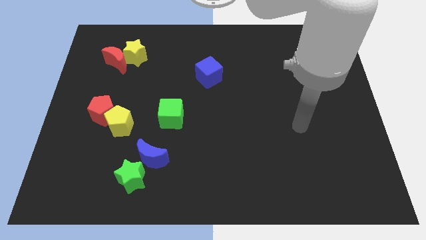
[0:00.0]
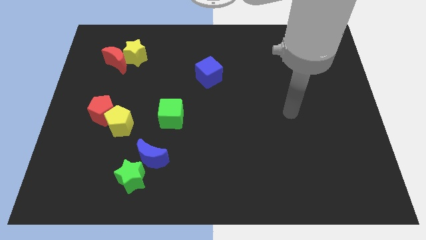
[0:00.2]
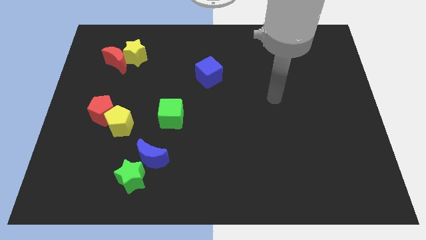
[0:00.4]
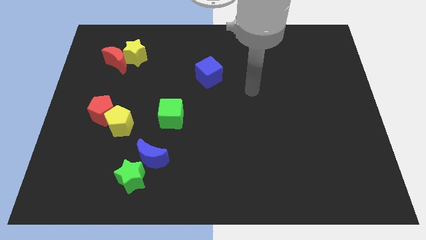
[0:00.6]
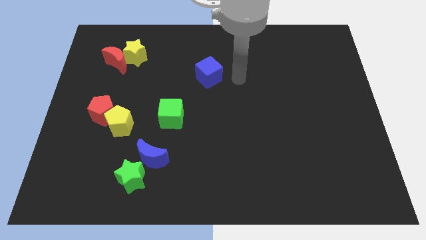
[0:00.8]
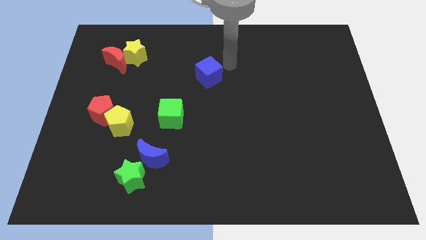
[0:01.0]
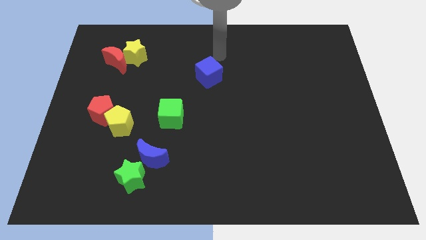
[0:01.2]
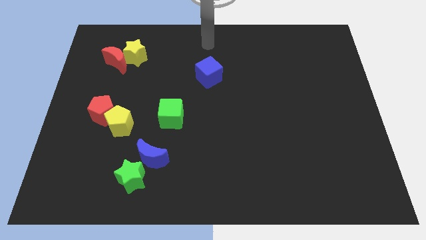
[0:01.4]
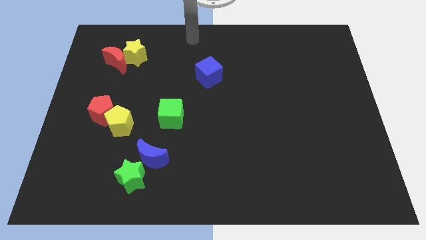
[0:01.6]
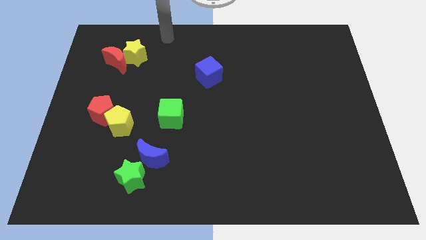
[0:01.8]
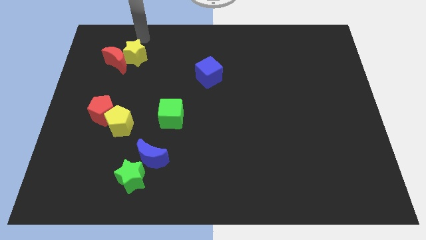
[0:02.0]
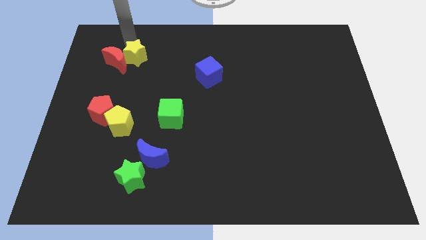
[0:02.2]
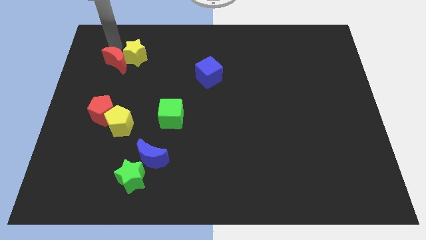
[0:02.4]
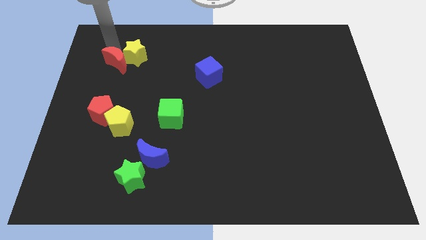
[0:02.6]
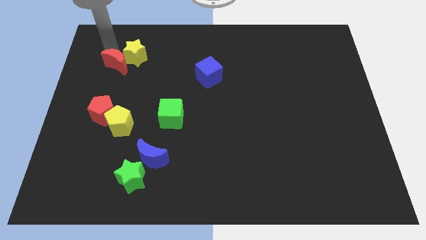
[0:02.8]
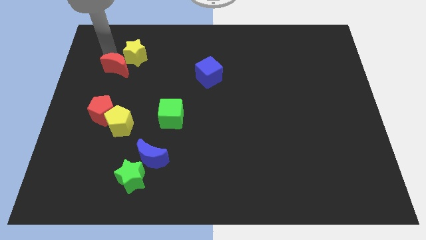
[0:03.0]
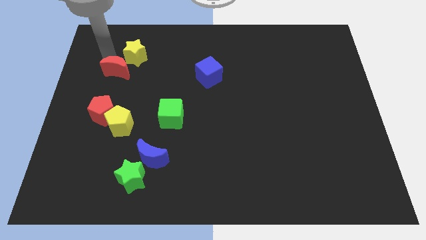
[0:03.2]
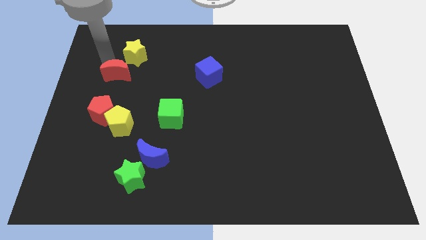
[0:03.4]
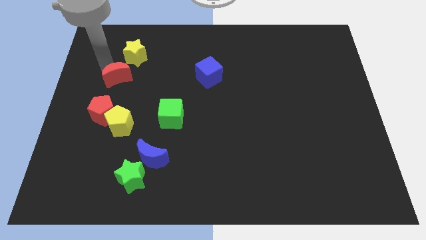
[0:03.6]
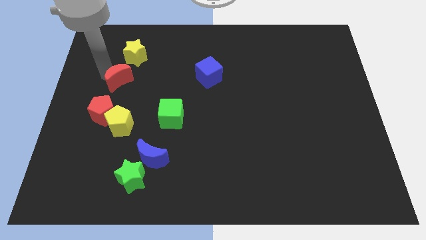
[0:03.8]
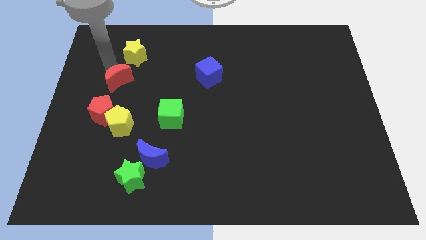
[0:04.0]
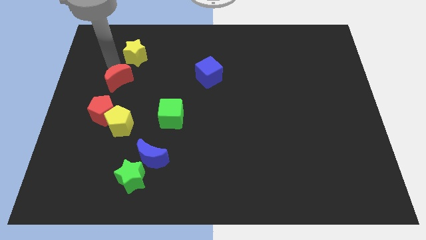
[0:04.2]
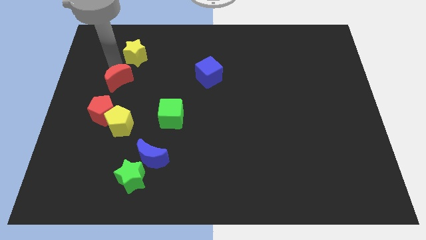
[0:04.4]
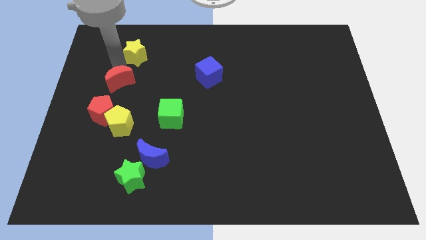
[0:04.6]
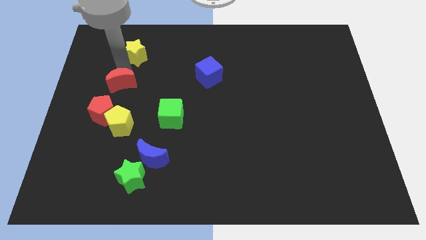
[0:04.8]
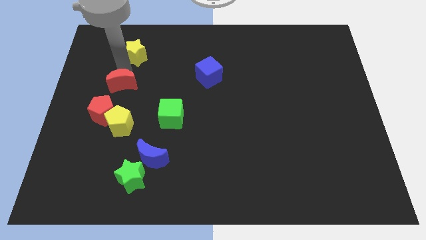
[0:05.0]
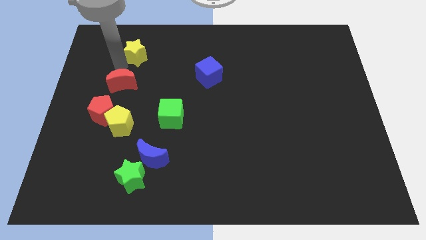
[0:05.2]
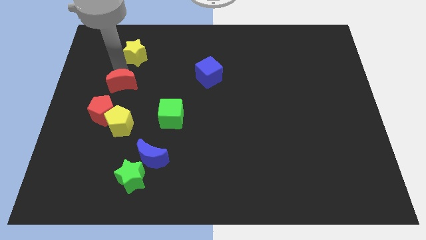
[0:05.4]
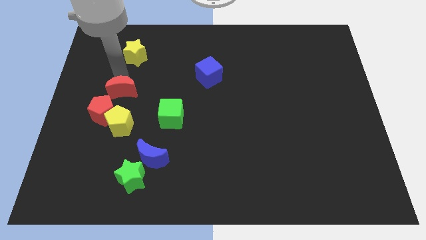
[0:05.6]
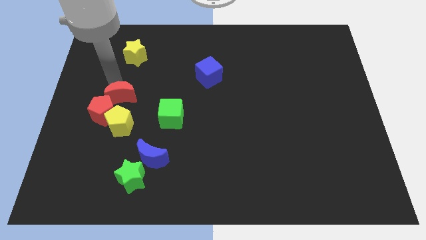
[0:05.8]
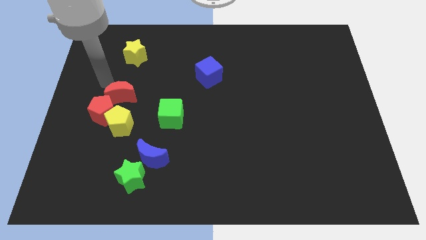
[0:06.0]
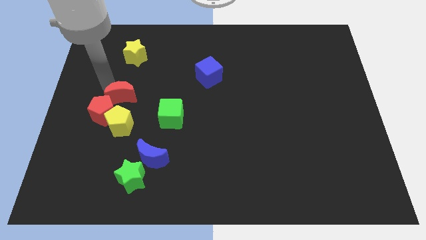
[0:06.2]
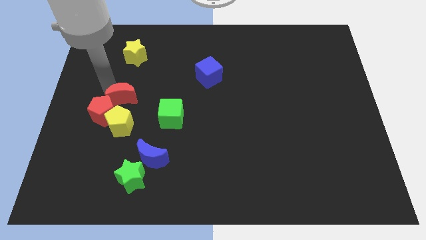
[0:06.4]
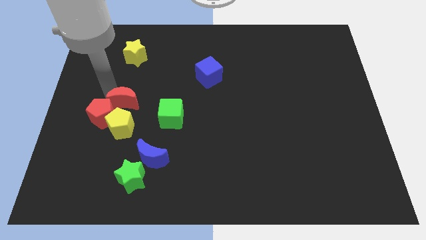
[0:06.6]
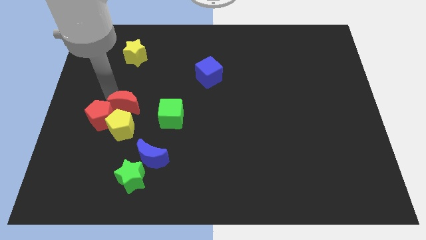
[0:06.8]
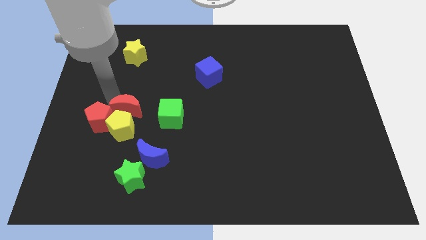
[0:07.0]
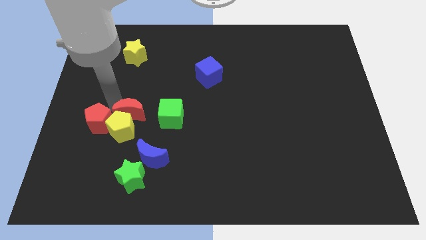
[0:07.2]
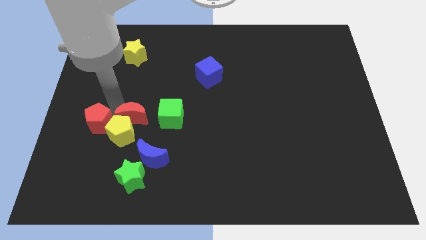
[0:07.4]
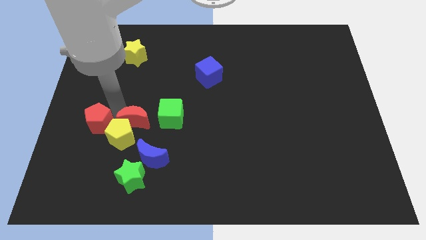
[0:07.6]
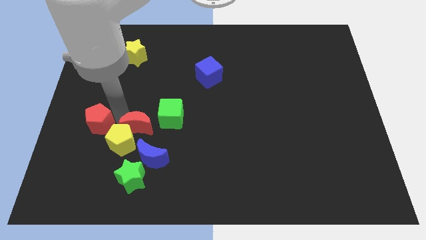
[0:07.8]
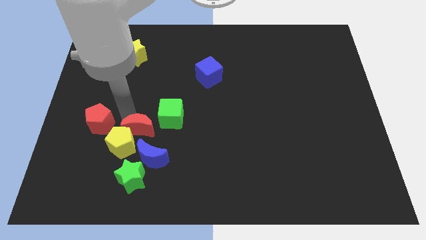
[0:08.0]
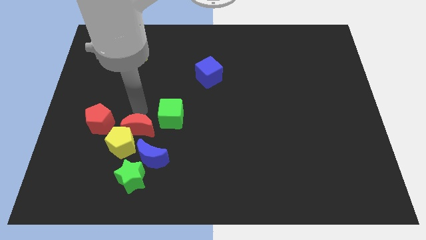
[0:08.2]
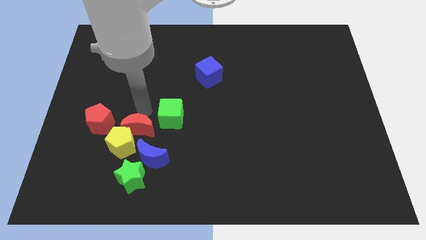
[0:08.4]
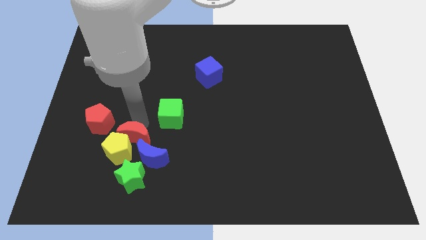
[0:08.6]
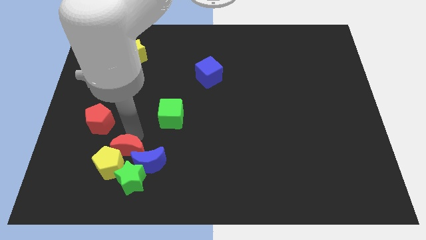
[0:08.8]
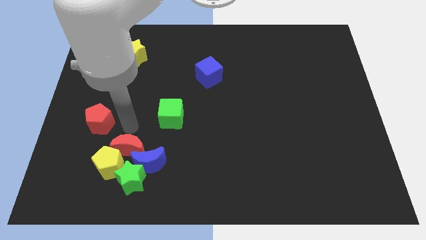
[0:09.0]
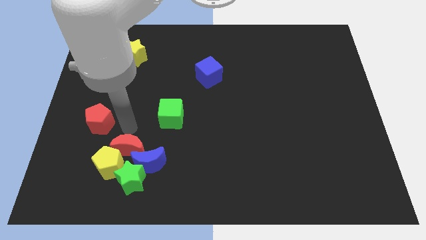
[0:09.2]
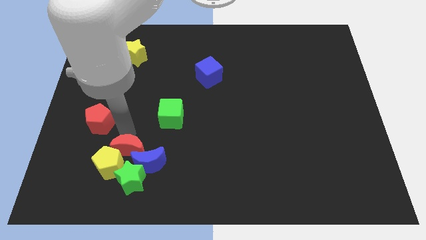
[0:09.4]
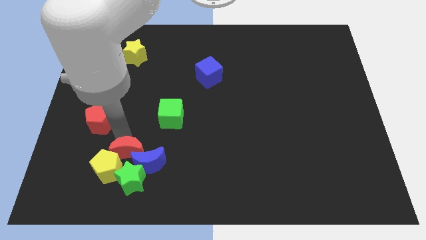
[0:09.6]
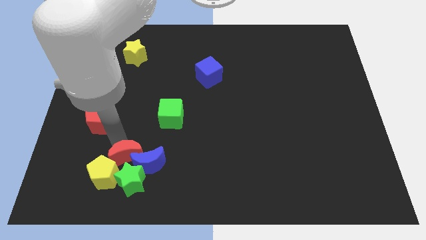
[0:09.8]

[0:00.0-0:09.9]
put the red moon to the green star

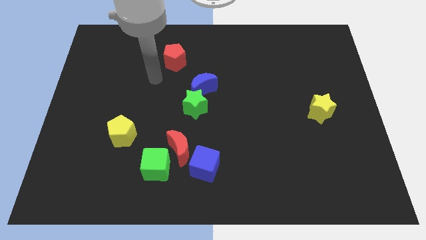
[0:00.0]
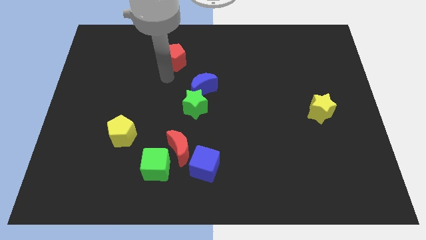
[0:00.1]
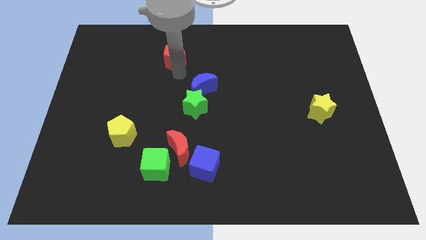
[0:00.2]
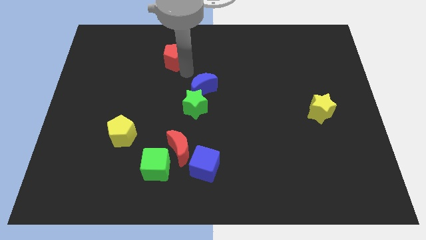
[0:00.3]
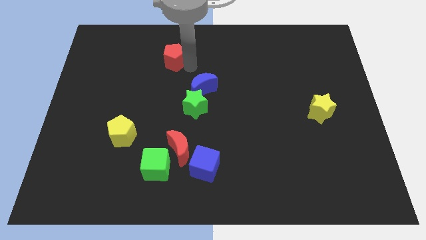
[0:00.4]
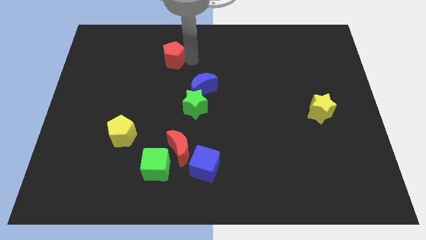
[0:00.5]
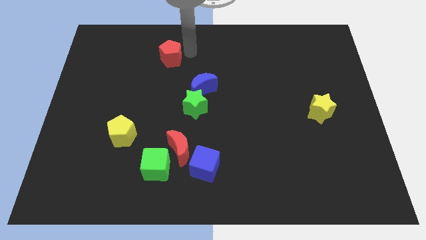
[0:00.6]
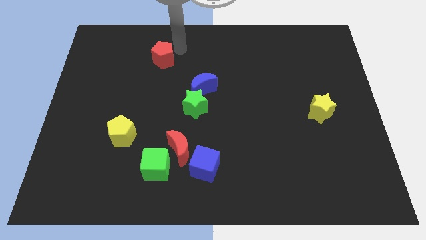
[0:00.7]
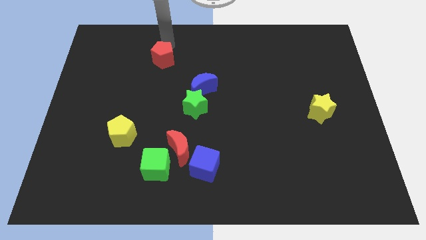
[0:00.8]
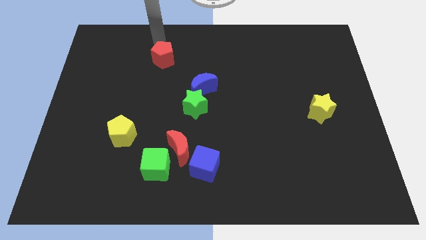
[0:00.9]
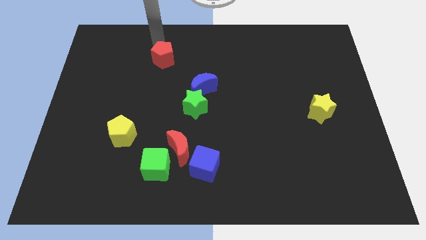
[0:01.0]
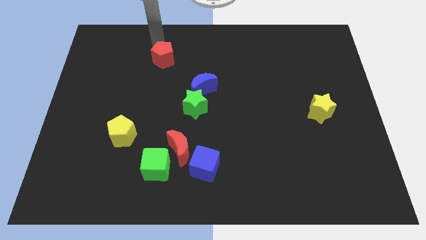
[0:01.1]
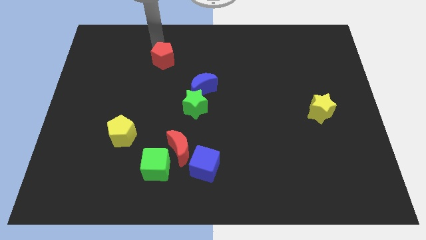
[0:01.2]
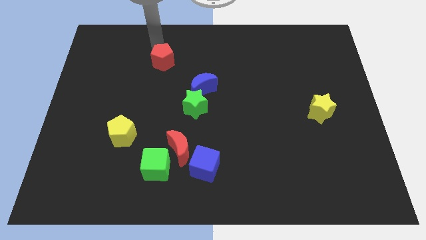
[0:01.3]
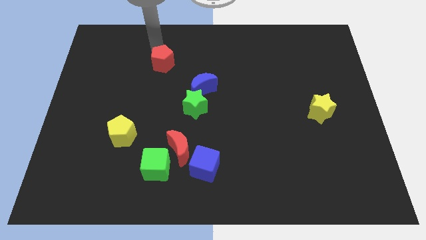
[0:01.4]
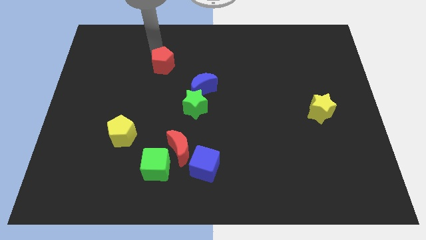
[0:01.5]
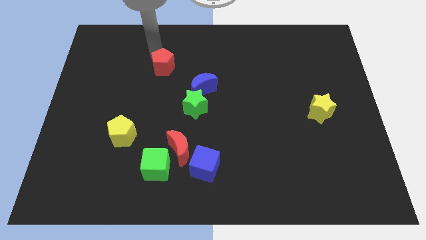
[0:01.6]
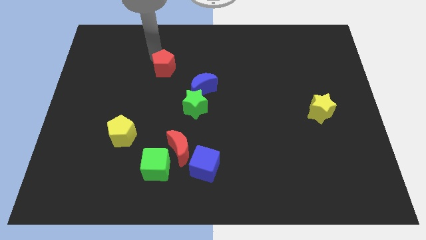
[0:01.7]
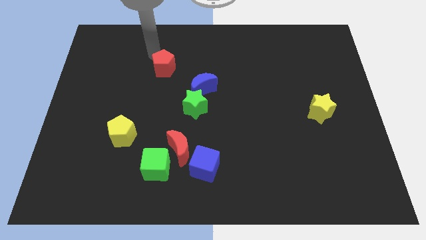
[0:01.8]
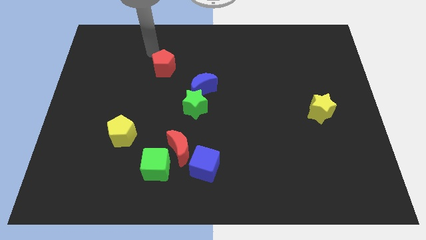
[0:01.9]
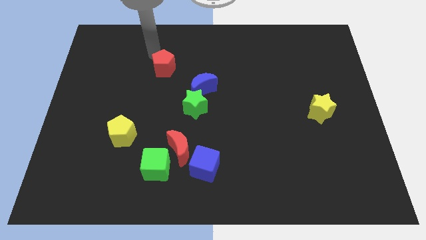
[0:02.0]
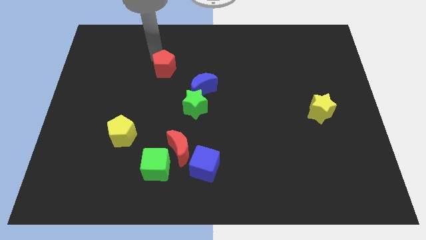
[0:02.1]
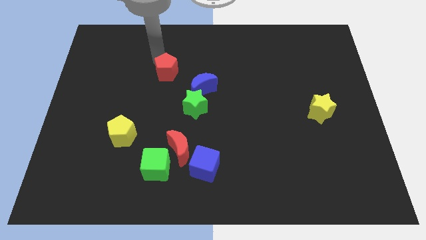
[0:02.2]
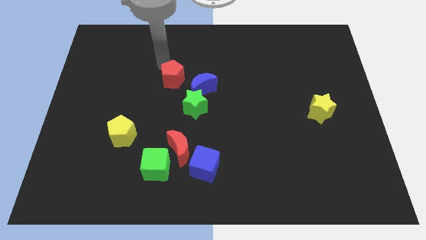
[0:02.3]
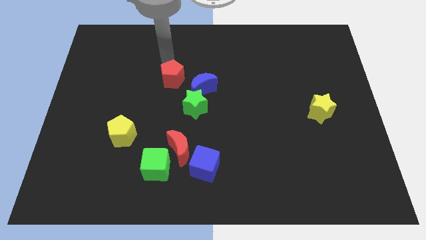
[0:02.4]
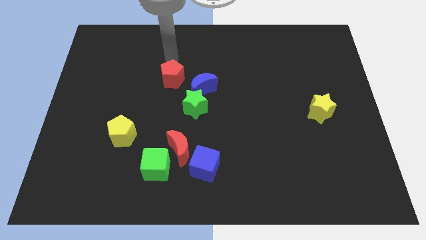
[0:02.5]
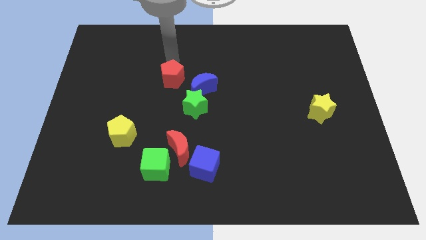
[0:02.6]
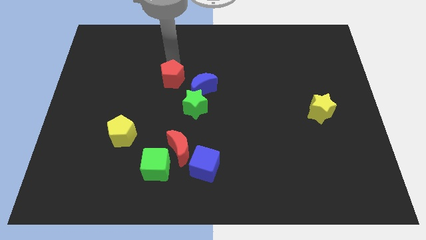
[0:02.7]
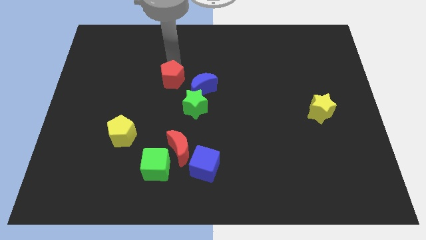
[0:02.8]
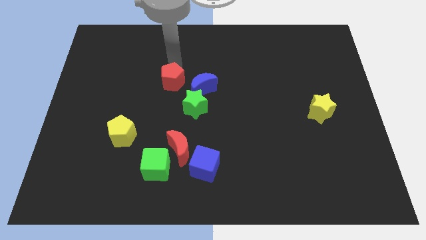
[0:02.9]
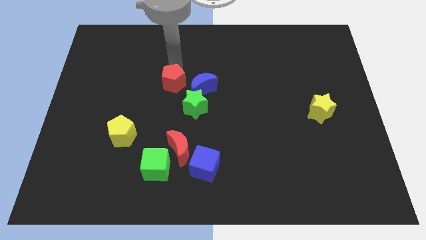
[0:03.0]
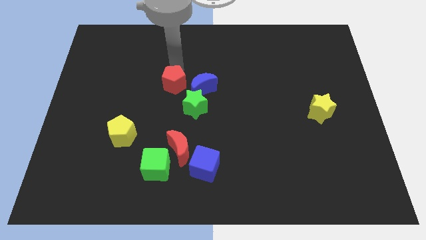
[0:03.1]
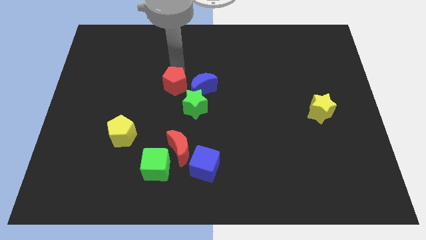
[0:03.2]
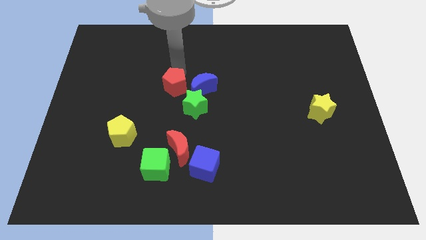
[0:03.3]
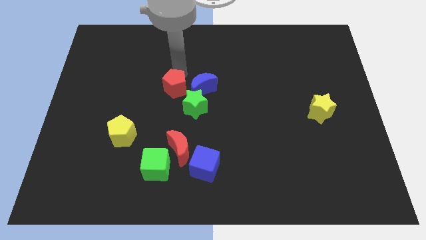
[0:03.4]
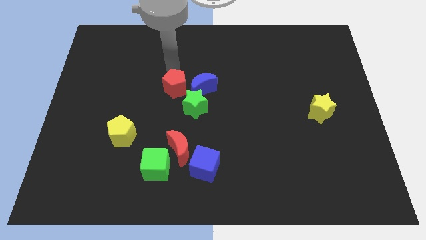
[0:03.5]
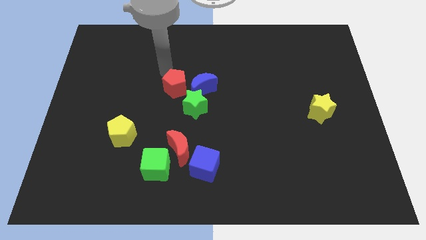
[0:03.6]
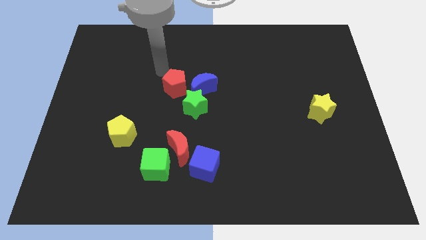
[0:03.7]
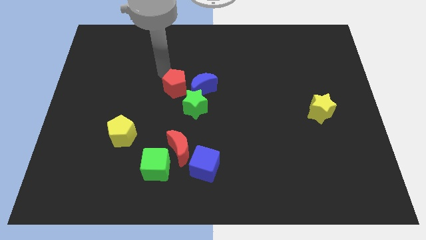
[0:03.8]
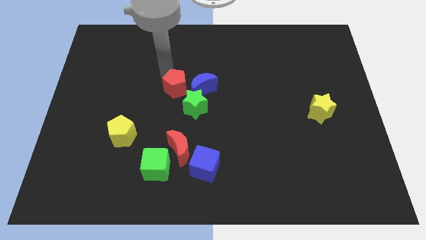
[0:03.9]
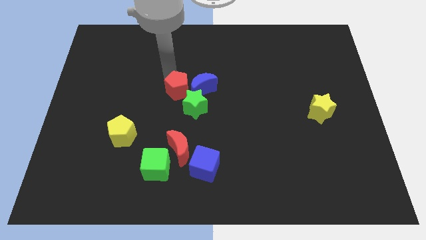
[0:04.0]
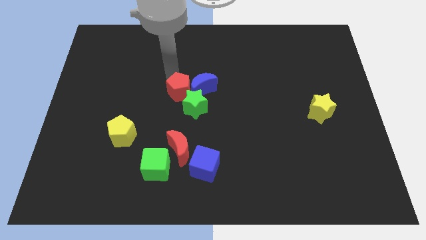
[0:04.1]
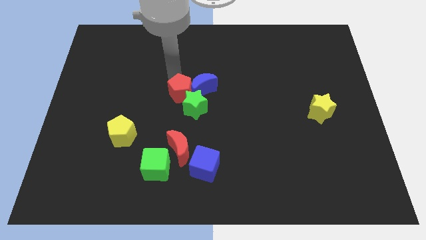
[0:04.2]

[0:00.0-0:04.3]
move the red pentagon to the green star
